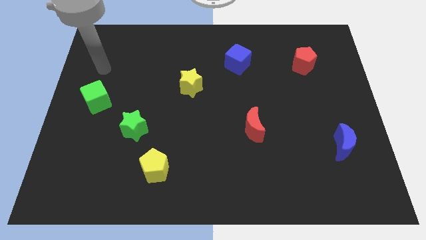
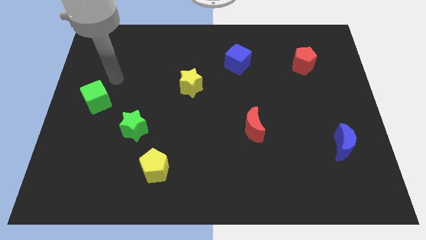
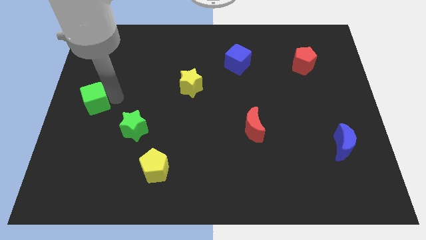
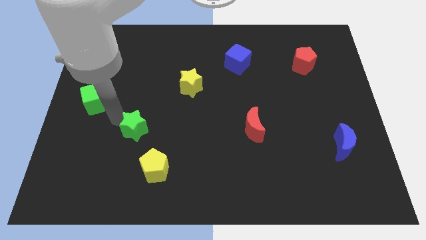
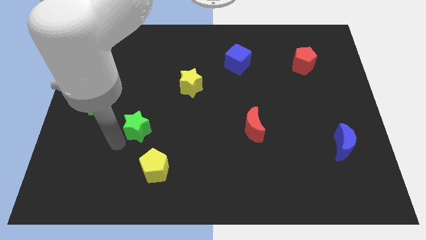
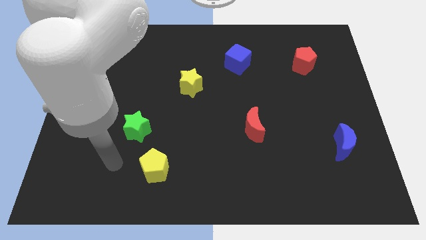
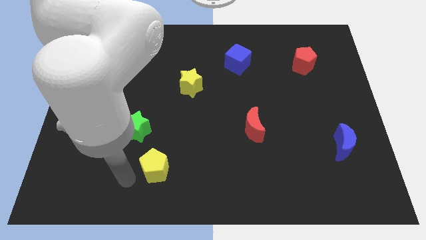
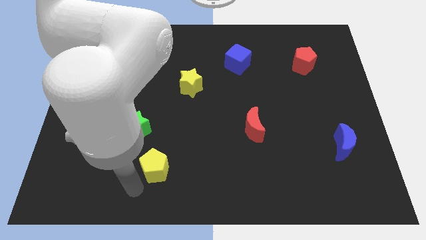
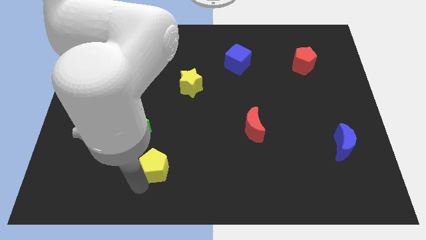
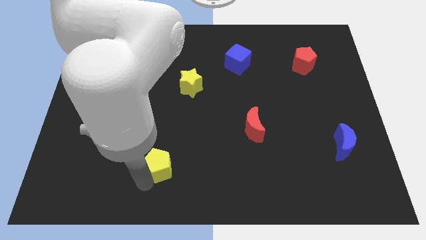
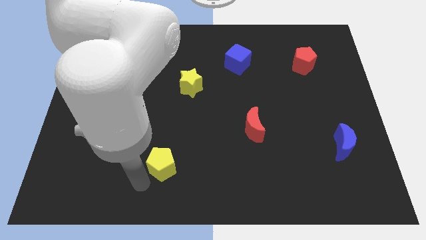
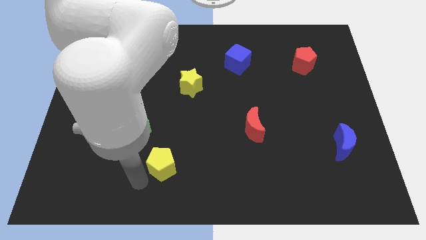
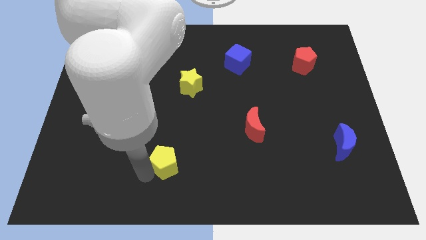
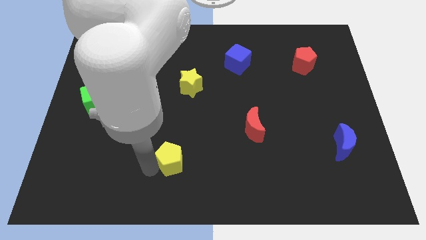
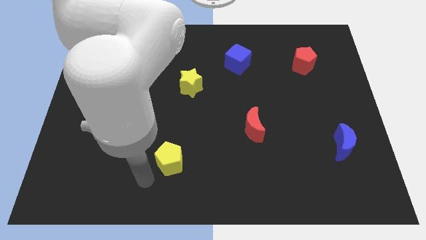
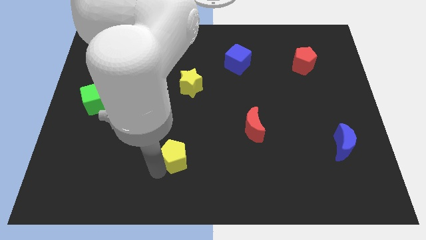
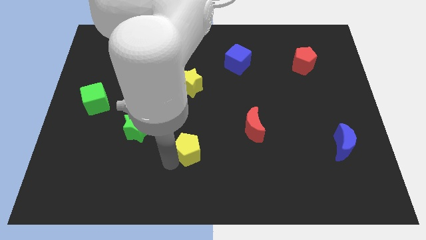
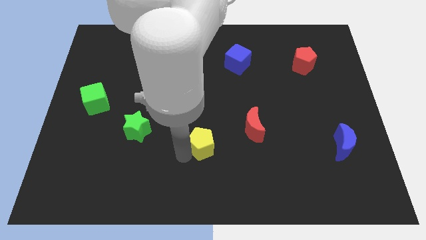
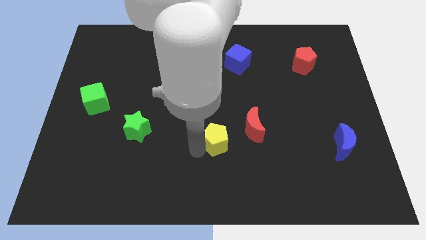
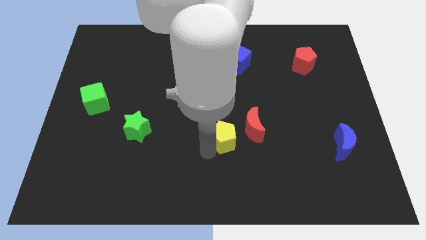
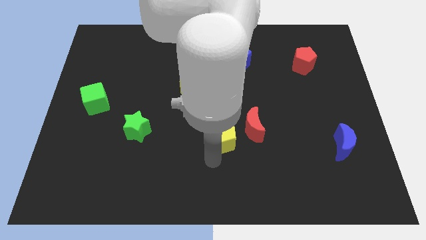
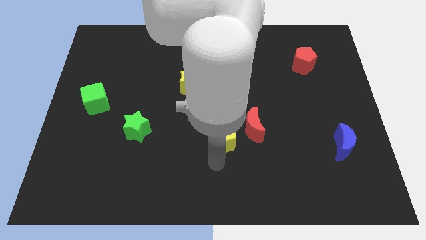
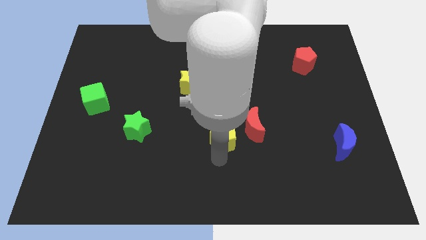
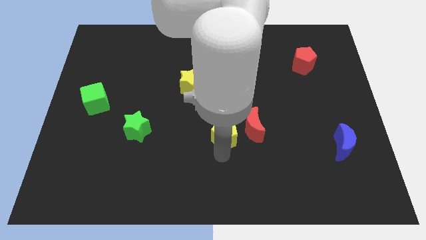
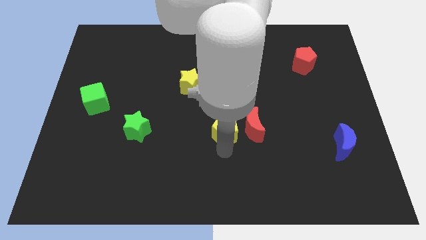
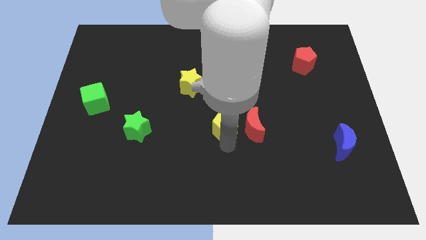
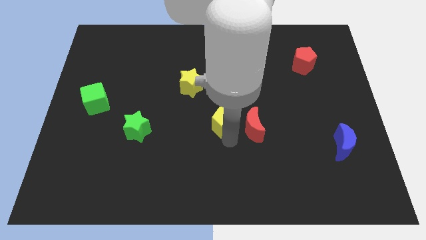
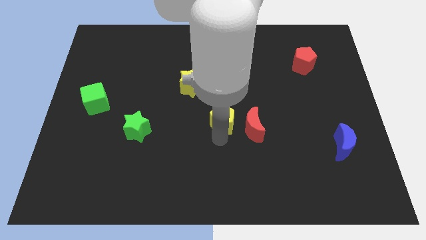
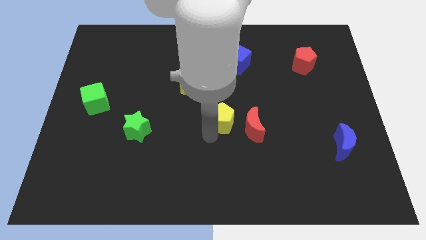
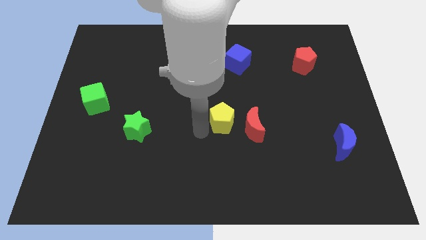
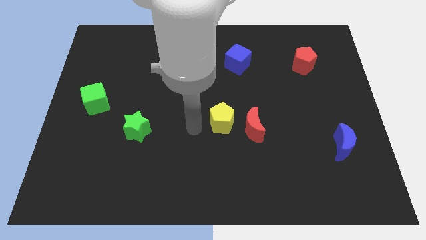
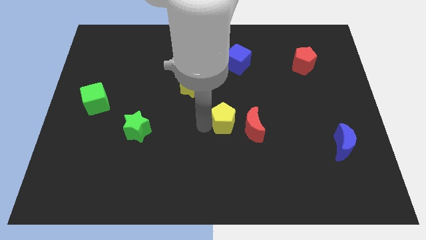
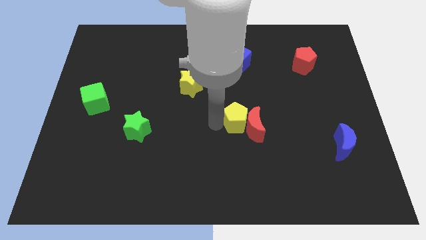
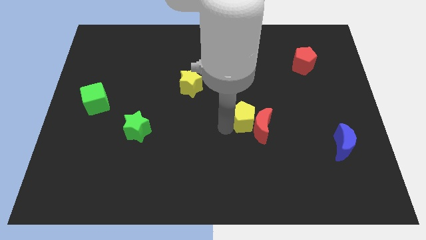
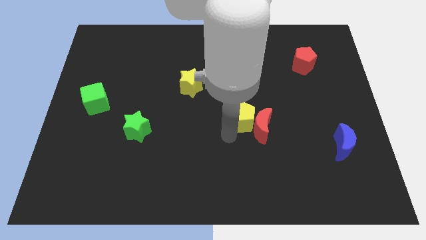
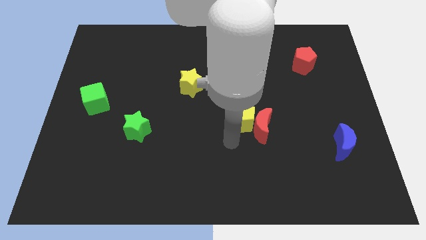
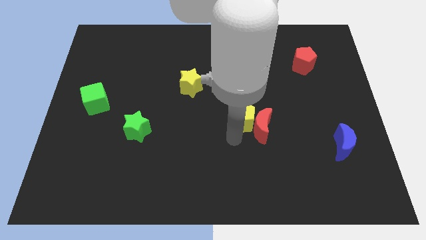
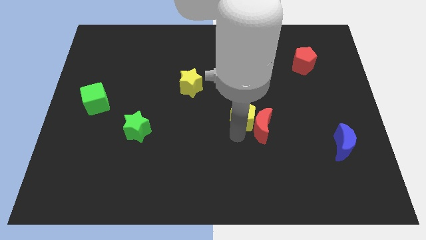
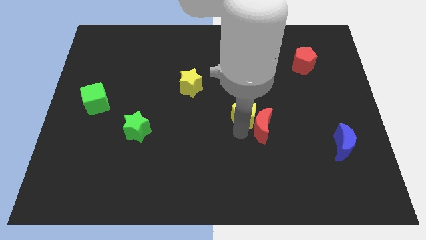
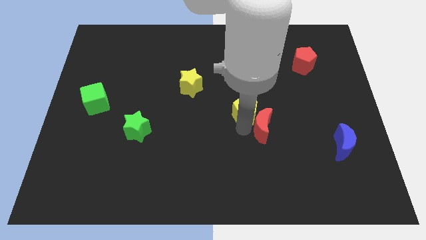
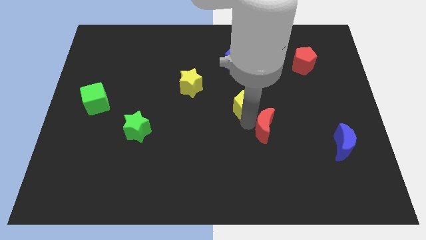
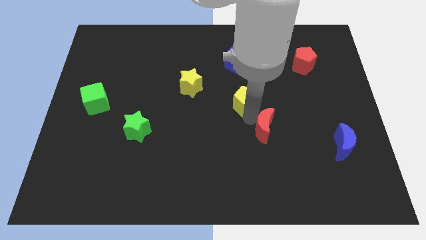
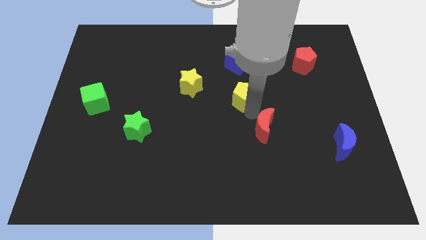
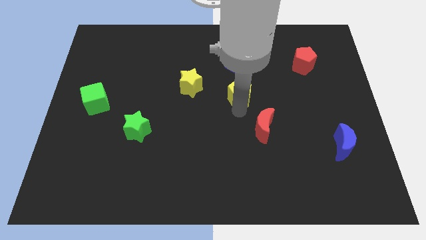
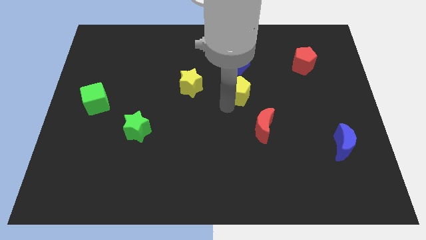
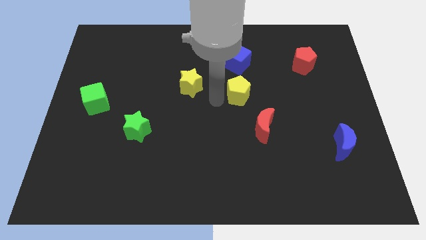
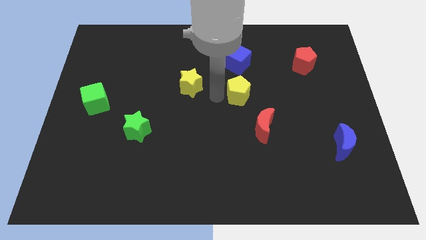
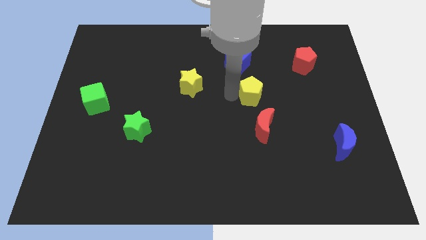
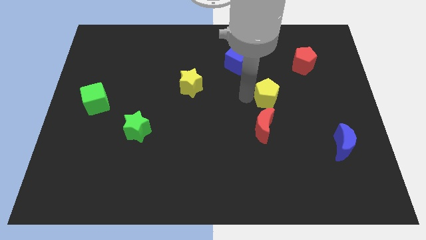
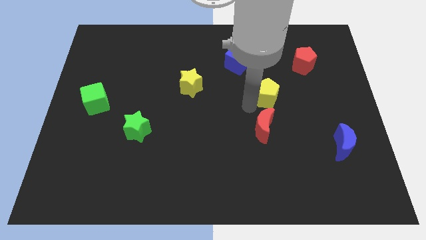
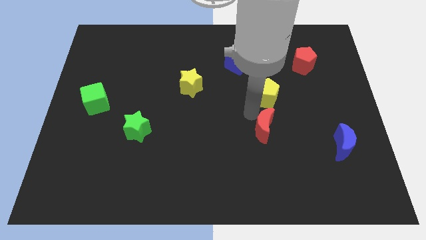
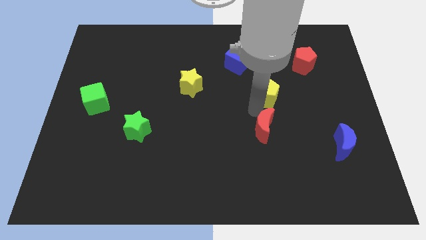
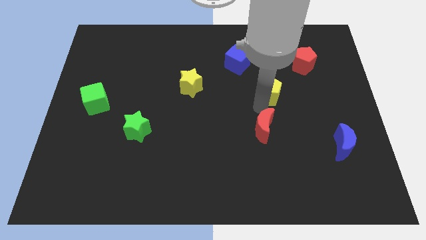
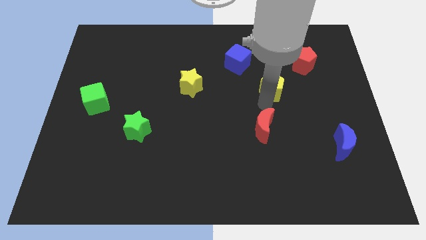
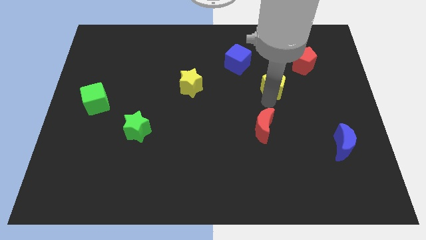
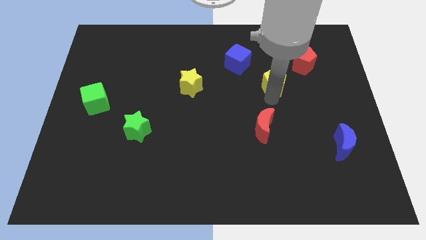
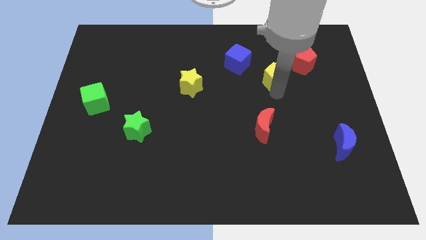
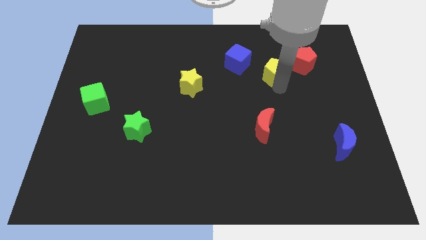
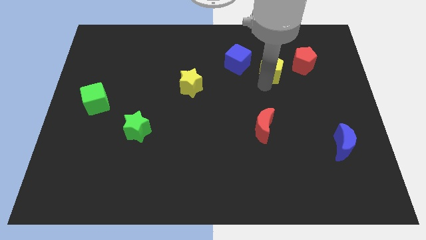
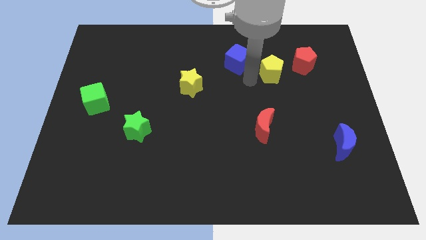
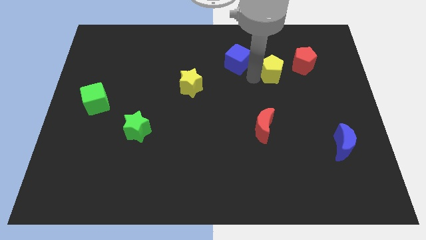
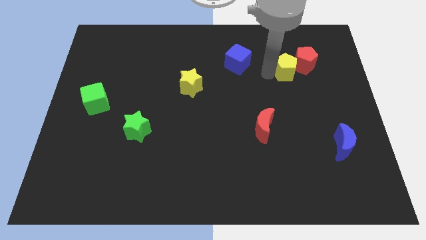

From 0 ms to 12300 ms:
slide the yellow pentagon close to the red pentagon

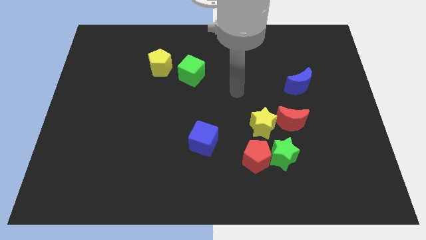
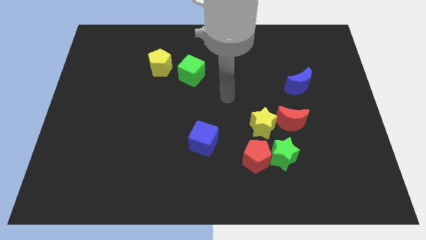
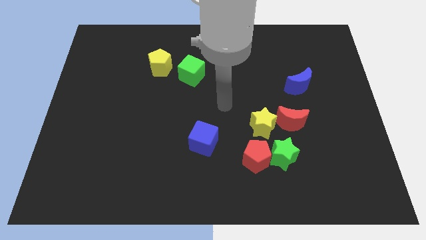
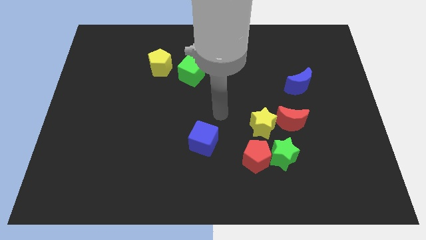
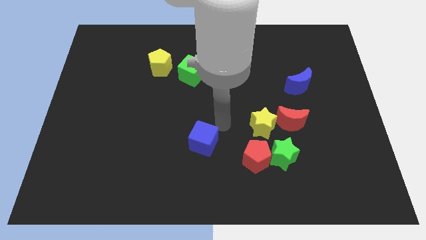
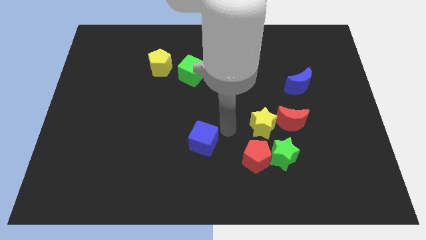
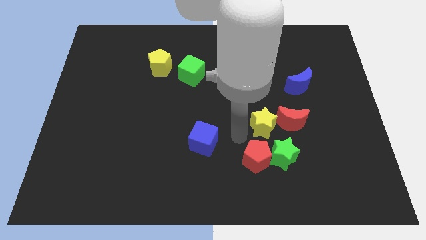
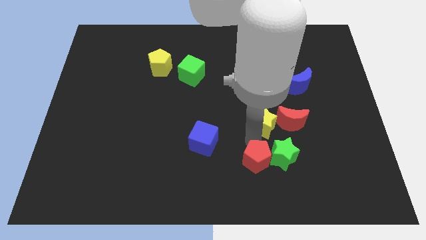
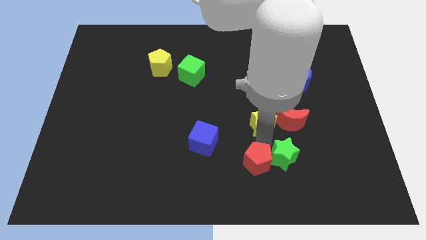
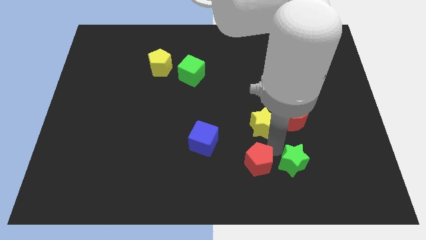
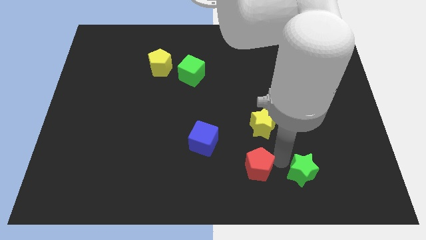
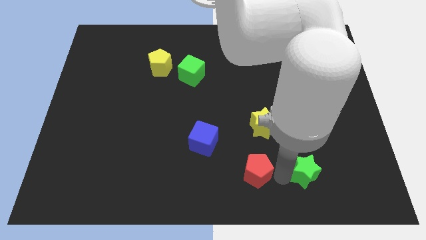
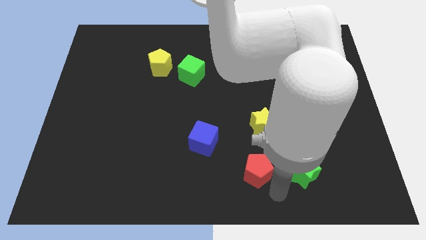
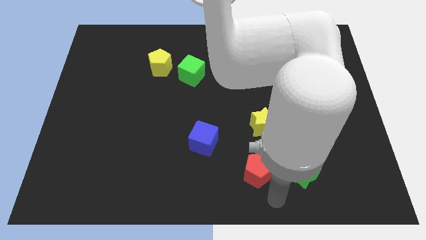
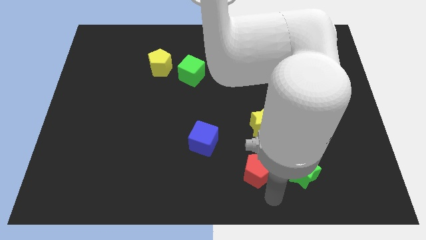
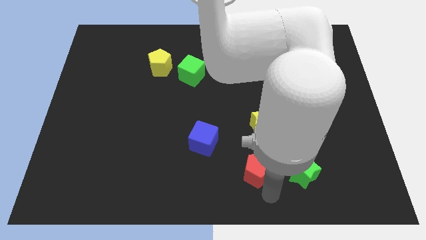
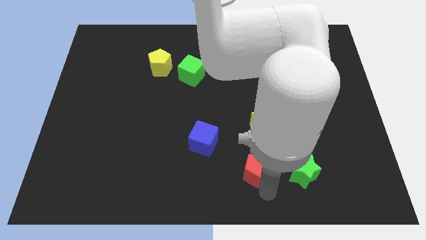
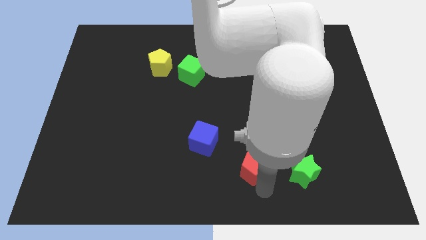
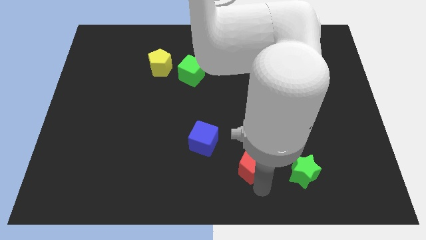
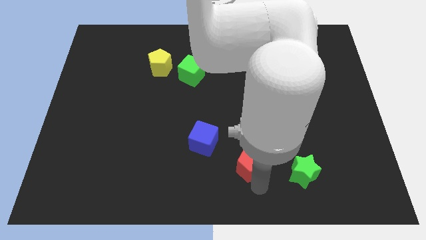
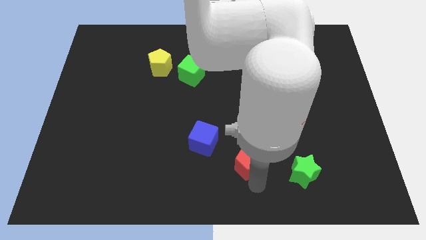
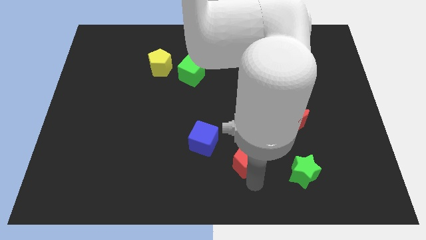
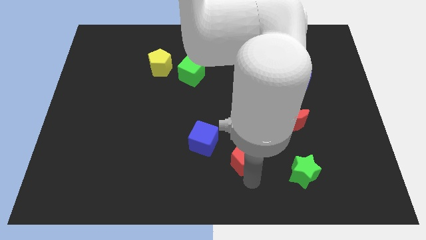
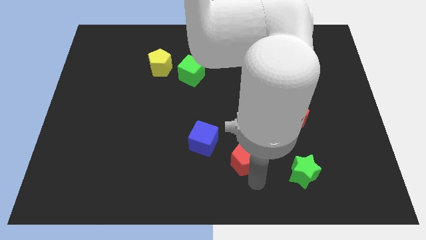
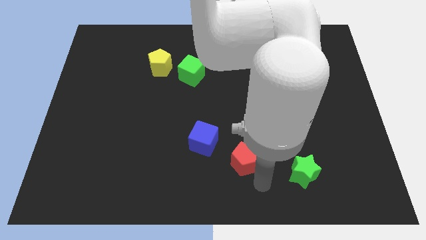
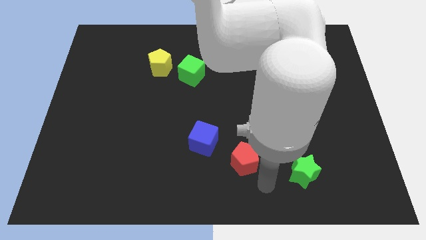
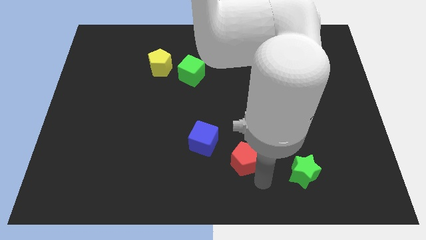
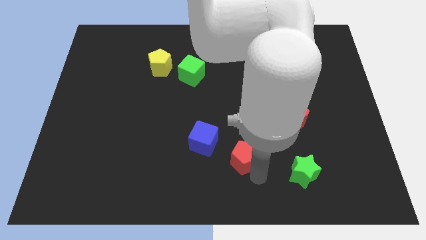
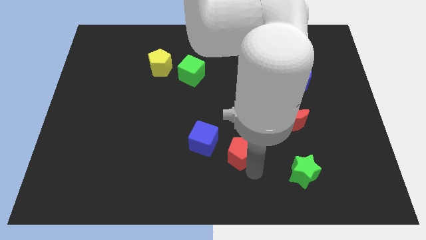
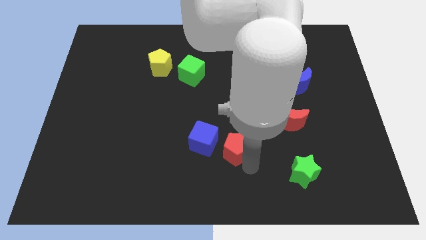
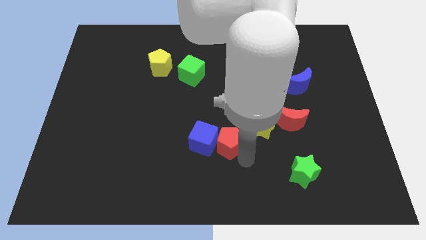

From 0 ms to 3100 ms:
move the red pentagon towards the blue cube
